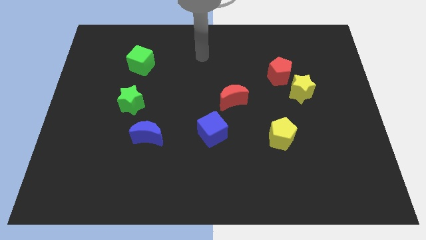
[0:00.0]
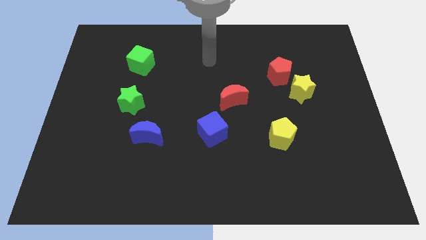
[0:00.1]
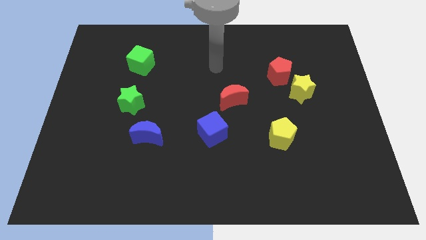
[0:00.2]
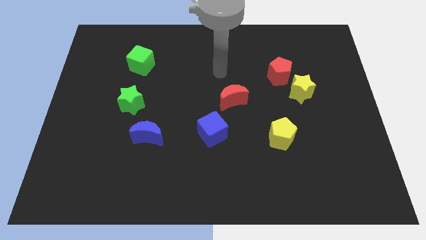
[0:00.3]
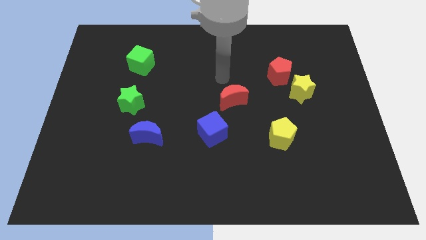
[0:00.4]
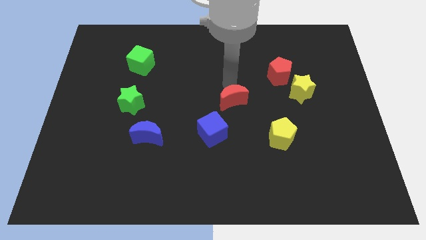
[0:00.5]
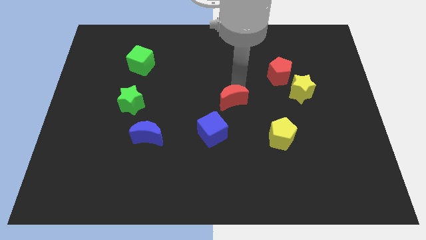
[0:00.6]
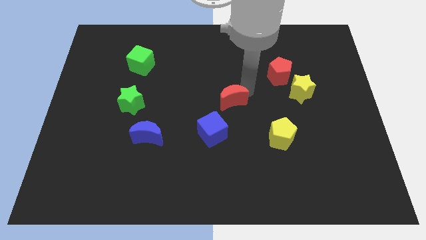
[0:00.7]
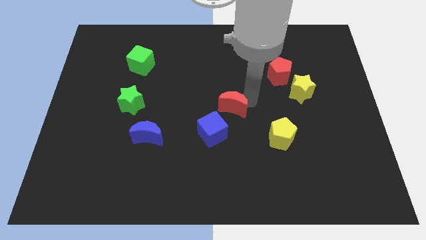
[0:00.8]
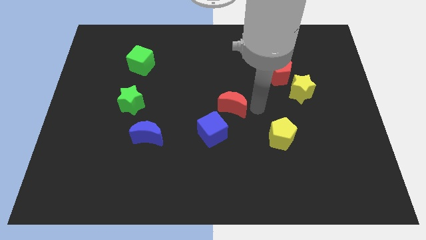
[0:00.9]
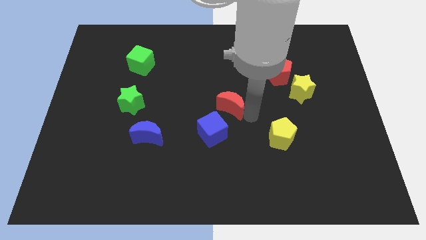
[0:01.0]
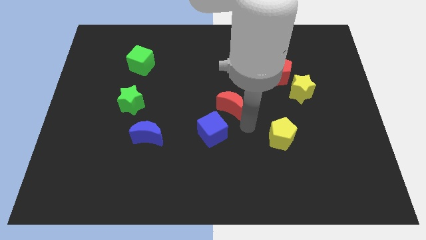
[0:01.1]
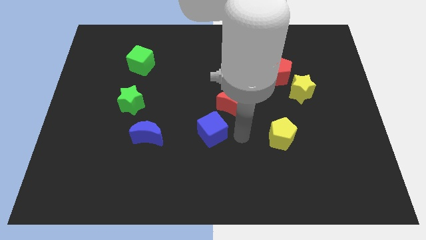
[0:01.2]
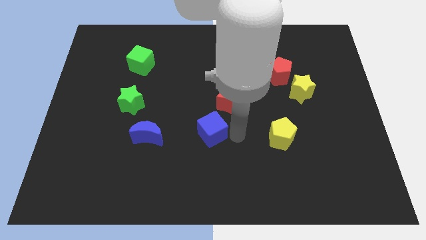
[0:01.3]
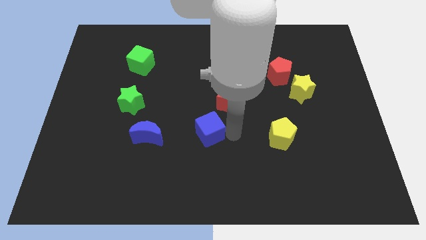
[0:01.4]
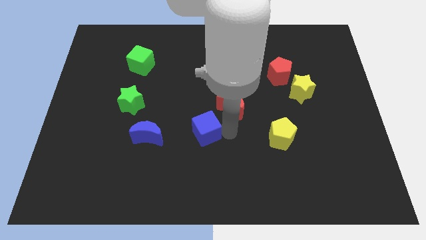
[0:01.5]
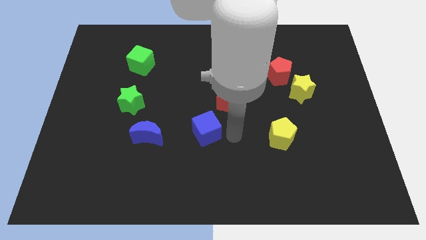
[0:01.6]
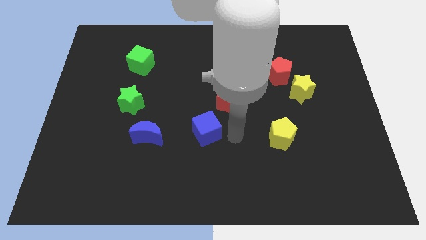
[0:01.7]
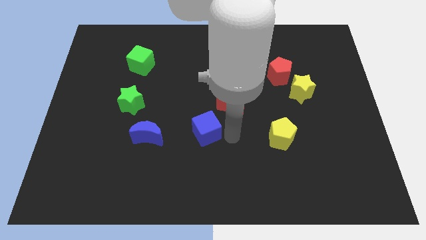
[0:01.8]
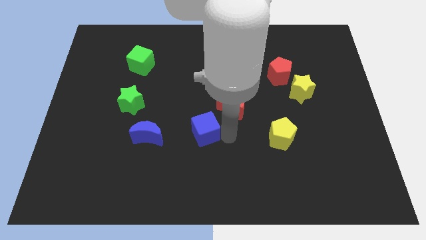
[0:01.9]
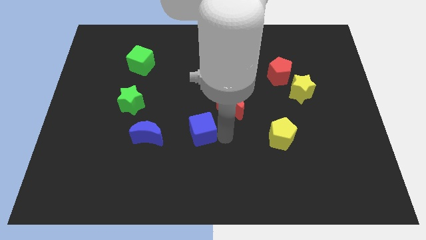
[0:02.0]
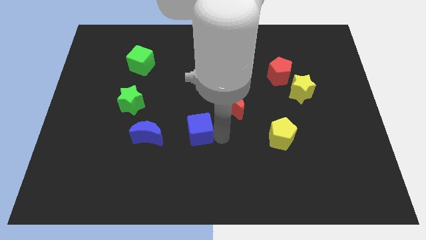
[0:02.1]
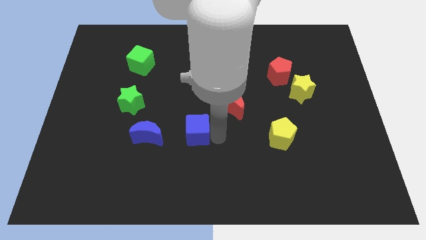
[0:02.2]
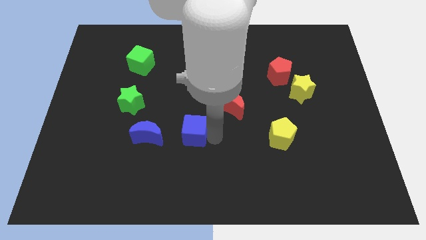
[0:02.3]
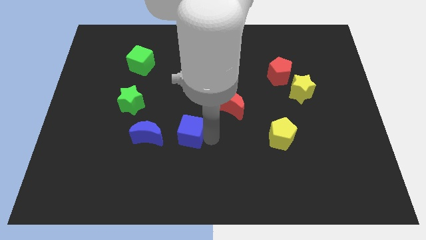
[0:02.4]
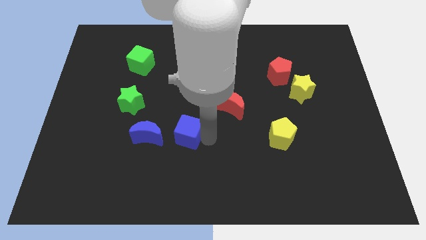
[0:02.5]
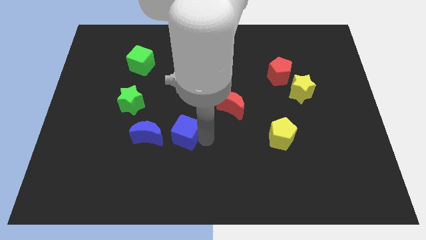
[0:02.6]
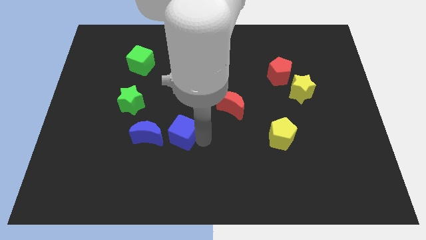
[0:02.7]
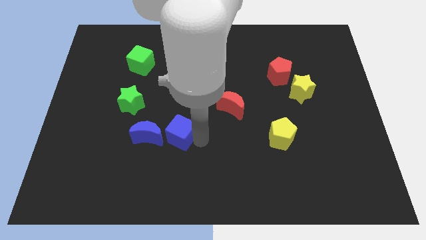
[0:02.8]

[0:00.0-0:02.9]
push the blue cube somewhat left

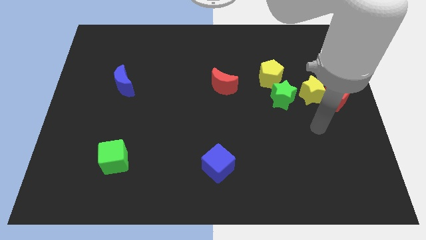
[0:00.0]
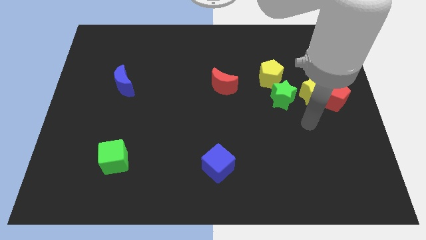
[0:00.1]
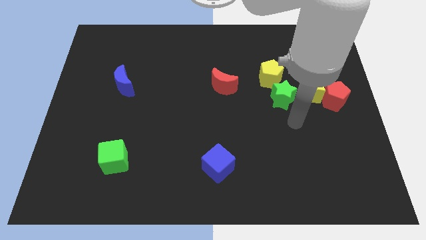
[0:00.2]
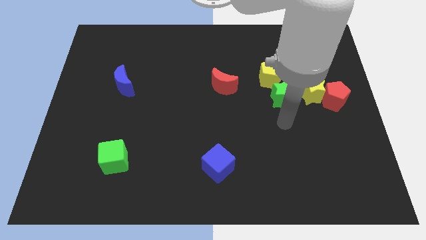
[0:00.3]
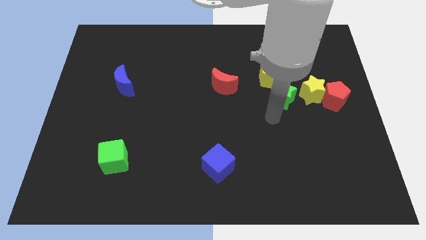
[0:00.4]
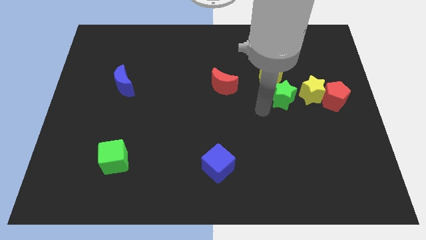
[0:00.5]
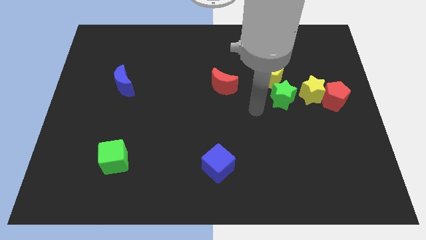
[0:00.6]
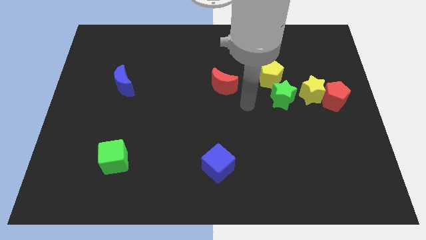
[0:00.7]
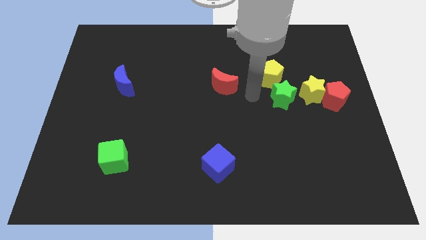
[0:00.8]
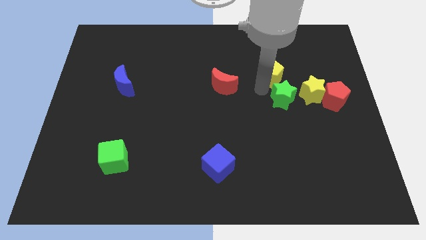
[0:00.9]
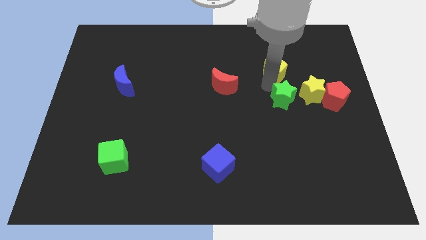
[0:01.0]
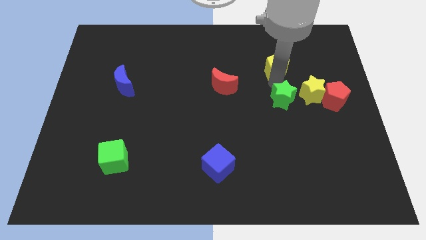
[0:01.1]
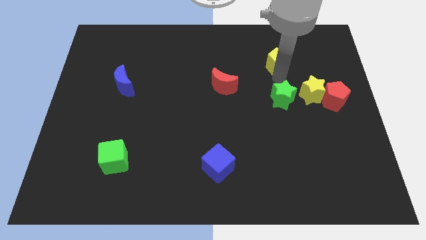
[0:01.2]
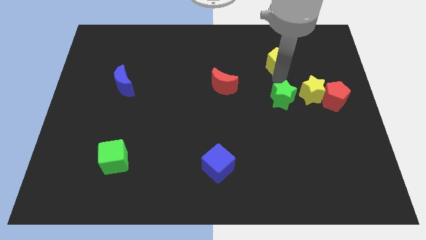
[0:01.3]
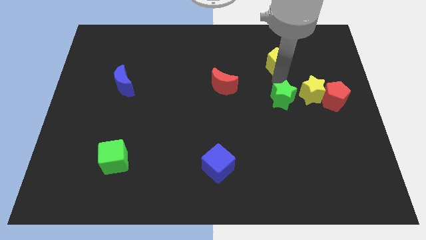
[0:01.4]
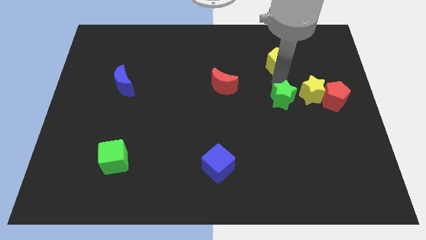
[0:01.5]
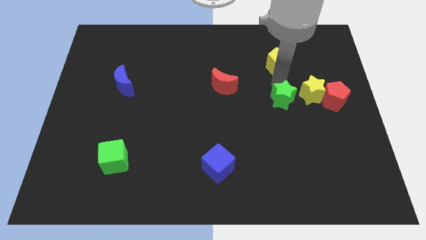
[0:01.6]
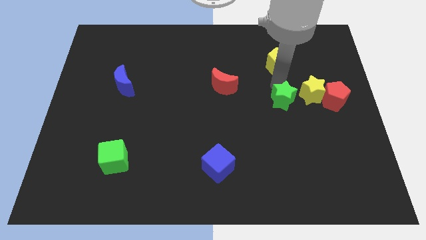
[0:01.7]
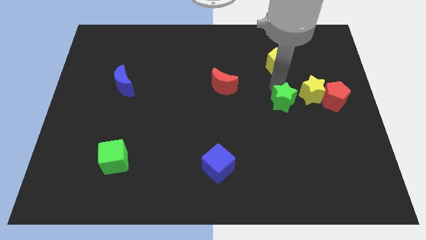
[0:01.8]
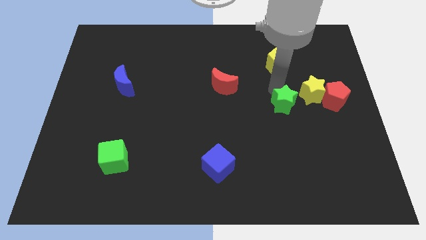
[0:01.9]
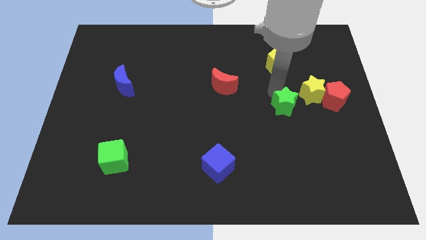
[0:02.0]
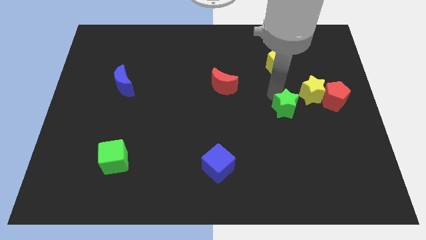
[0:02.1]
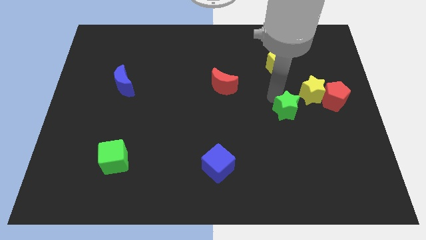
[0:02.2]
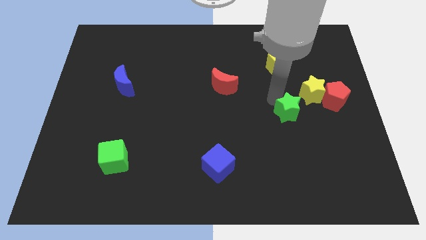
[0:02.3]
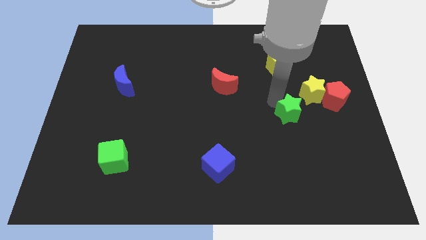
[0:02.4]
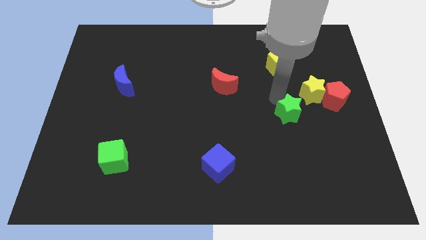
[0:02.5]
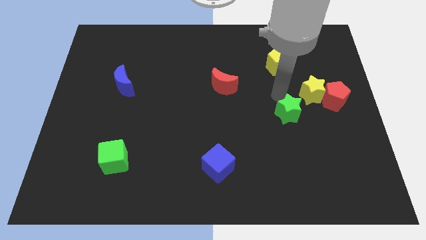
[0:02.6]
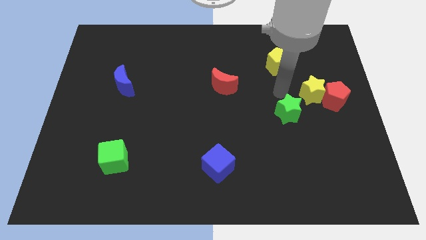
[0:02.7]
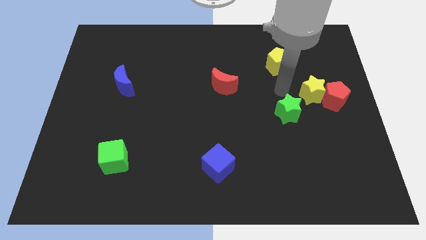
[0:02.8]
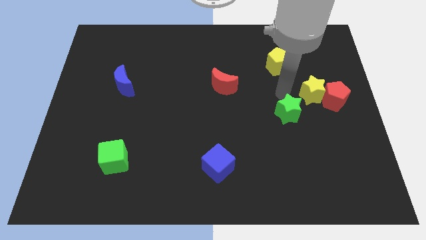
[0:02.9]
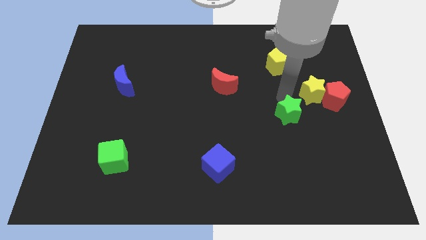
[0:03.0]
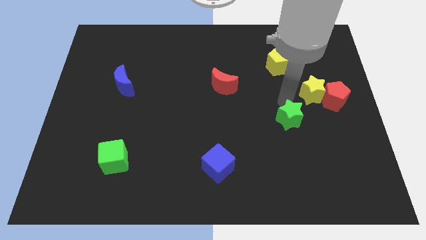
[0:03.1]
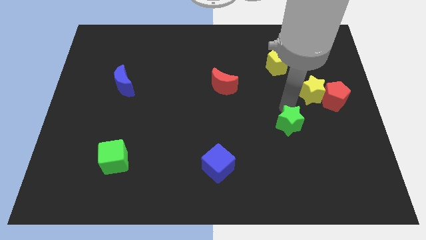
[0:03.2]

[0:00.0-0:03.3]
slightly push the green star down

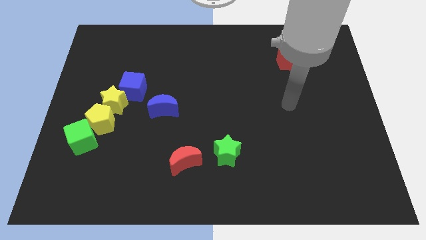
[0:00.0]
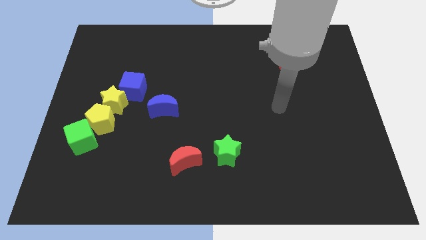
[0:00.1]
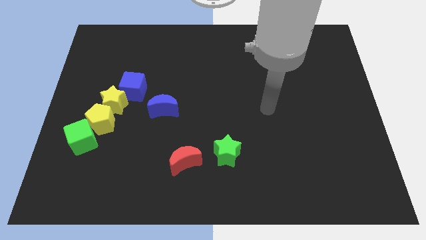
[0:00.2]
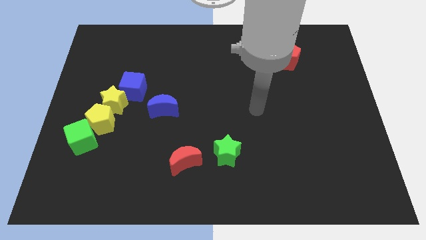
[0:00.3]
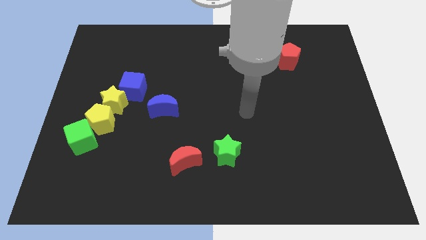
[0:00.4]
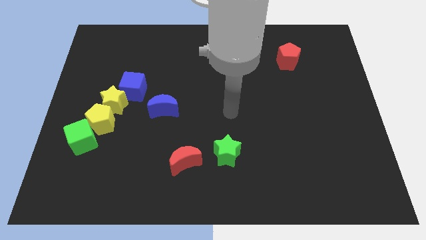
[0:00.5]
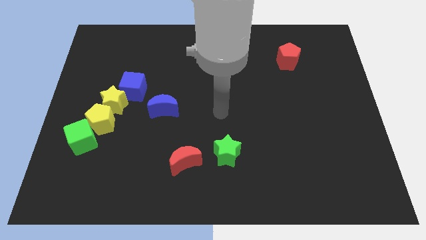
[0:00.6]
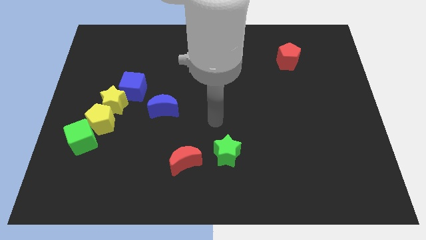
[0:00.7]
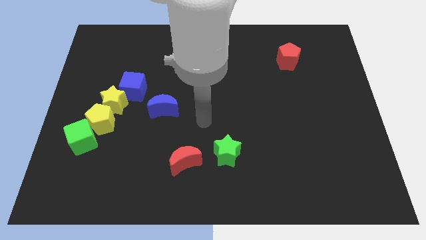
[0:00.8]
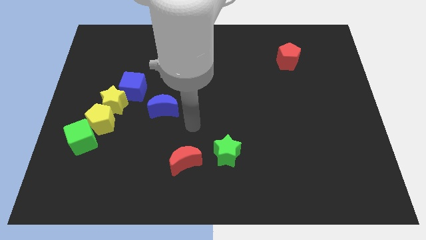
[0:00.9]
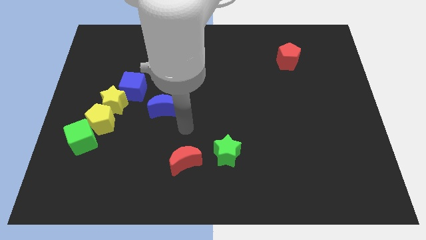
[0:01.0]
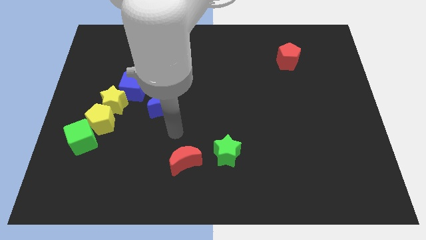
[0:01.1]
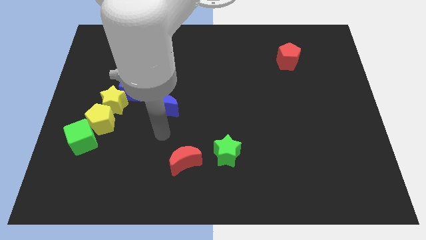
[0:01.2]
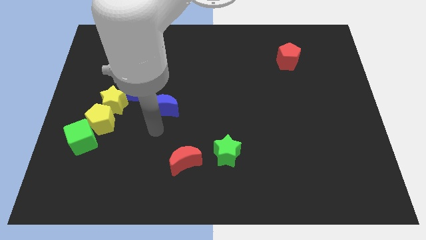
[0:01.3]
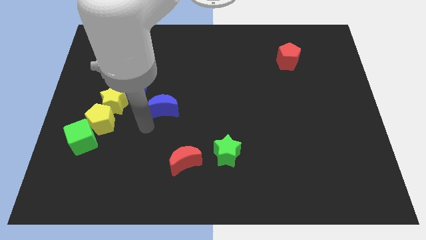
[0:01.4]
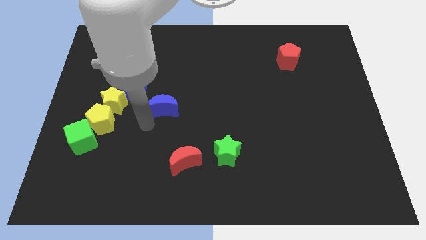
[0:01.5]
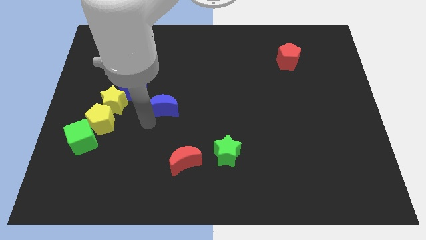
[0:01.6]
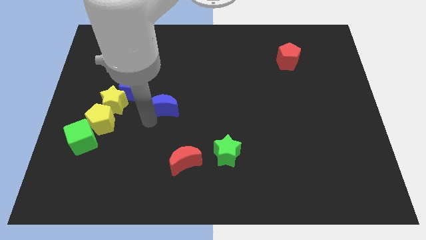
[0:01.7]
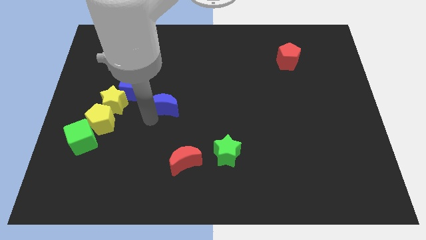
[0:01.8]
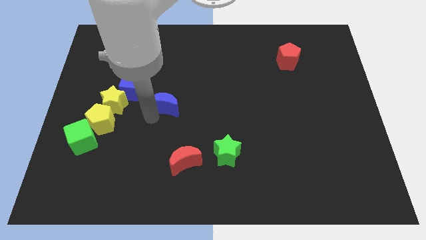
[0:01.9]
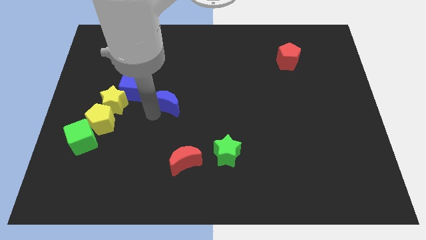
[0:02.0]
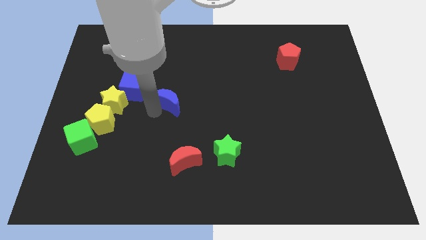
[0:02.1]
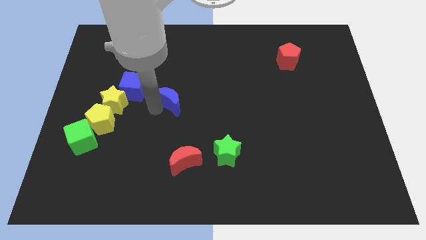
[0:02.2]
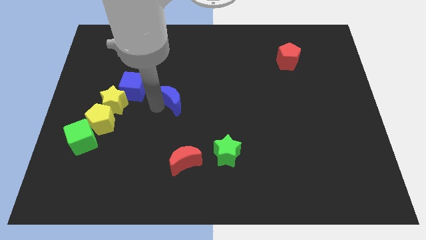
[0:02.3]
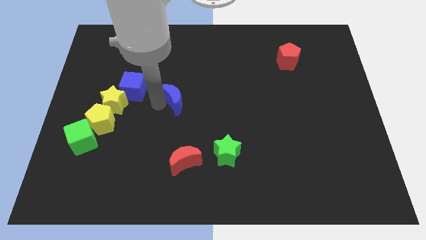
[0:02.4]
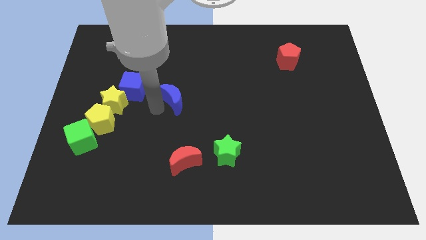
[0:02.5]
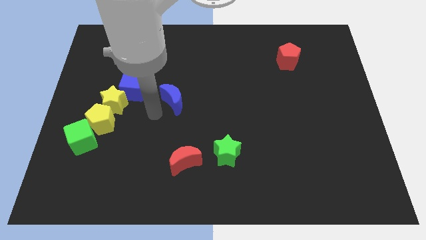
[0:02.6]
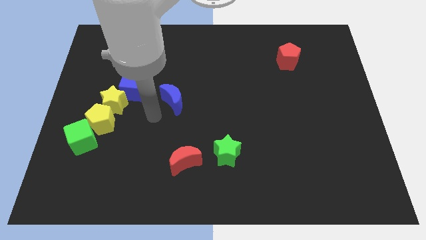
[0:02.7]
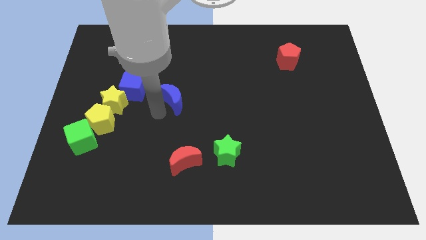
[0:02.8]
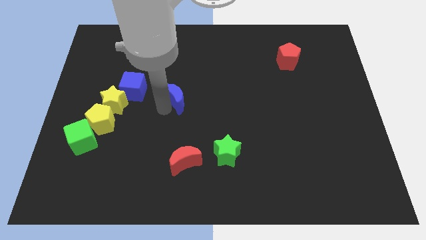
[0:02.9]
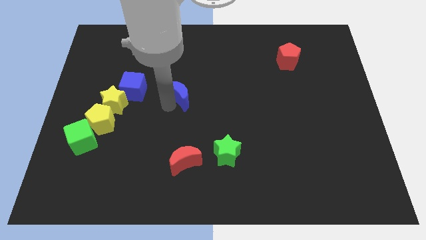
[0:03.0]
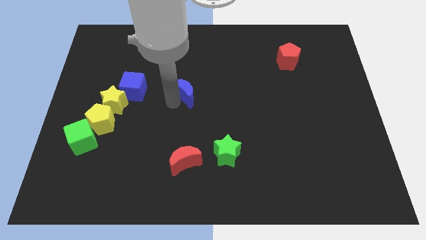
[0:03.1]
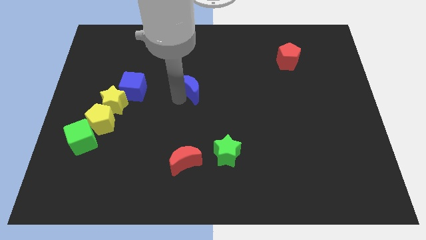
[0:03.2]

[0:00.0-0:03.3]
slightly slide the blue moon diagonally up and to the right
